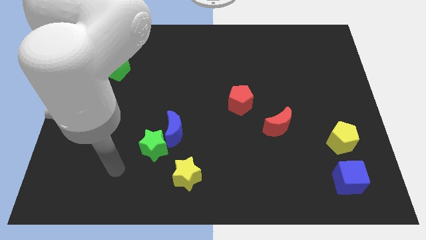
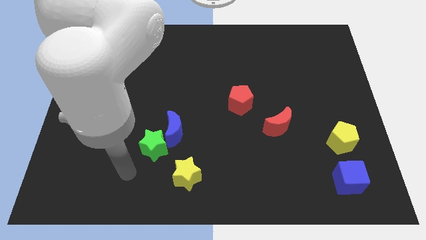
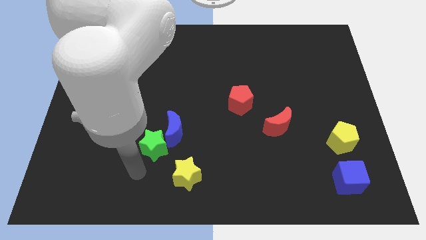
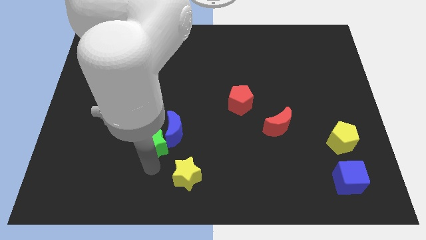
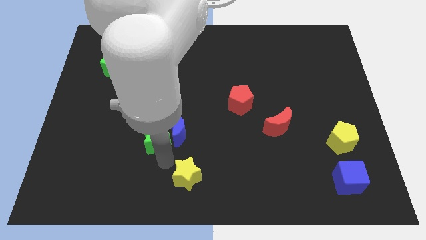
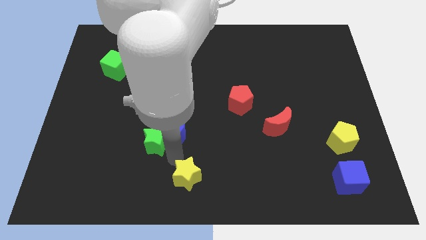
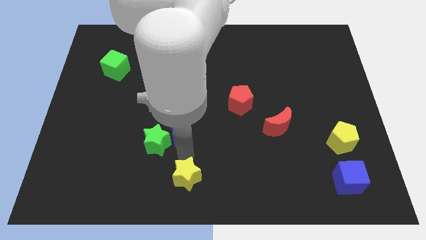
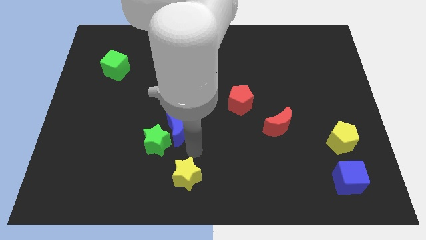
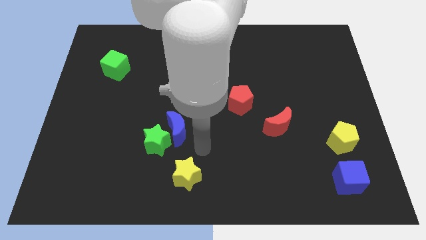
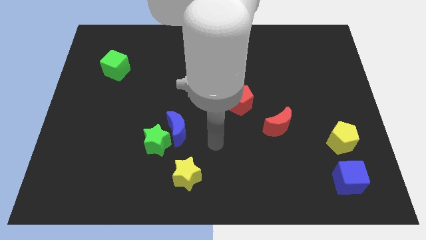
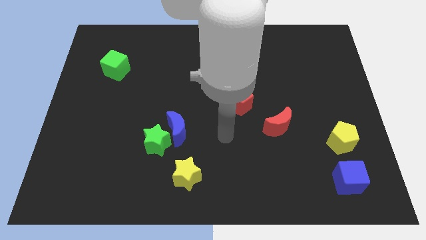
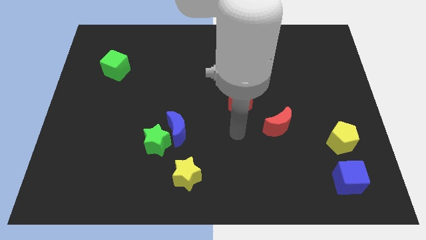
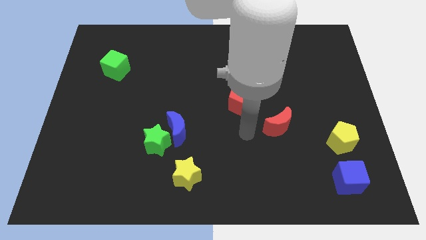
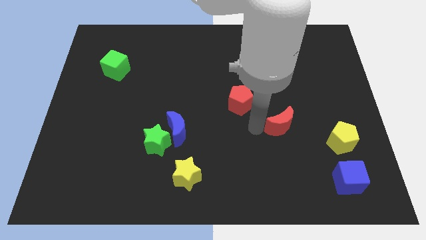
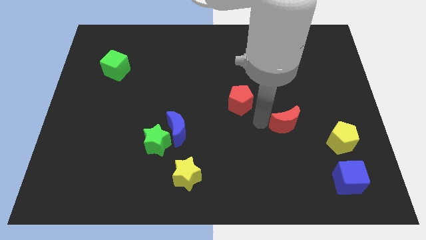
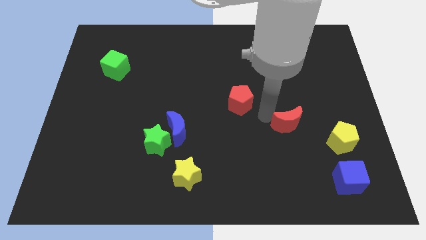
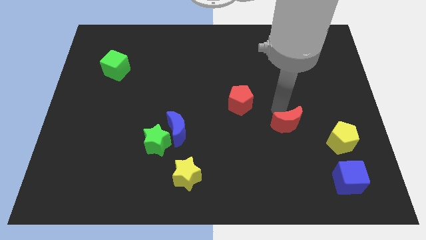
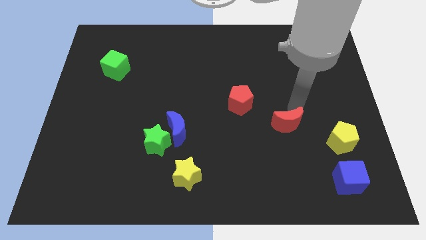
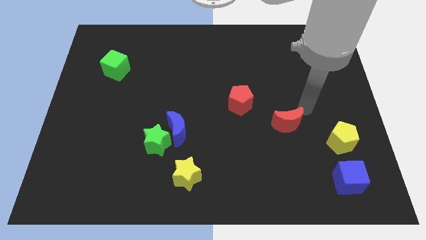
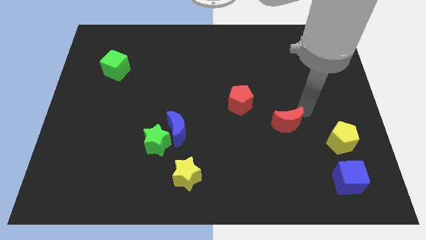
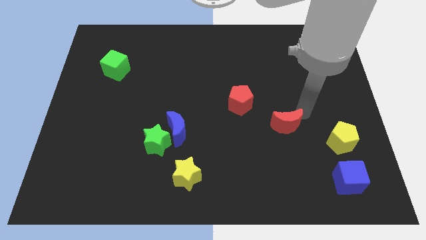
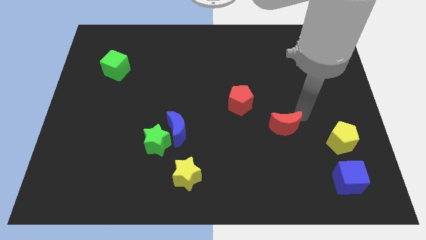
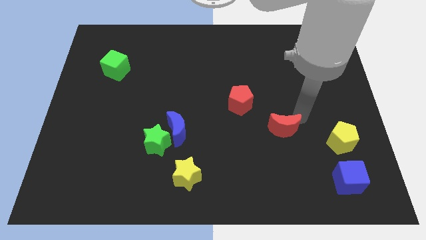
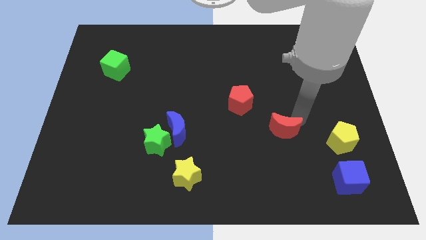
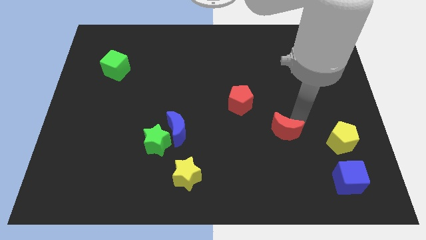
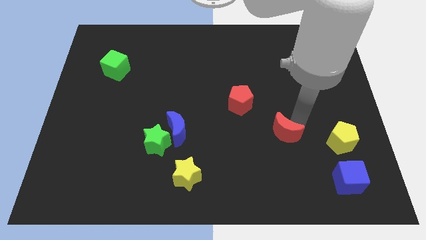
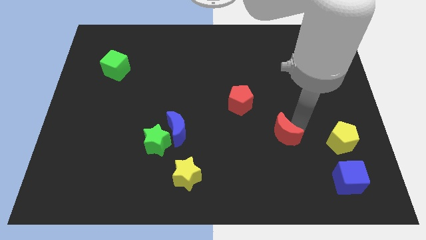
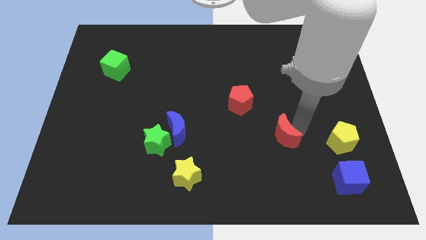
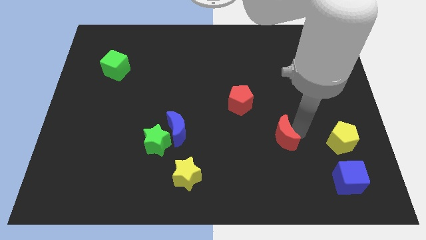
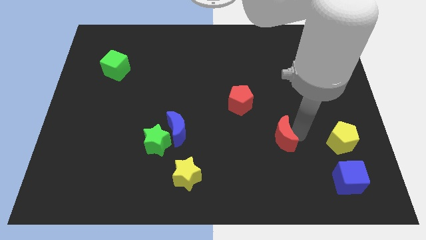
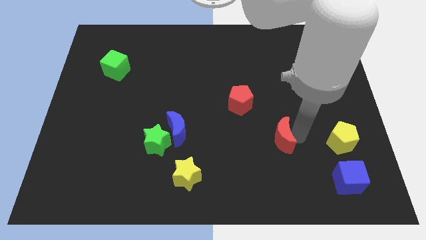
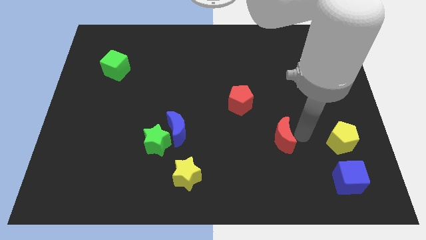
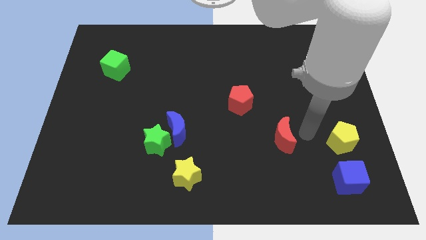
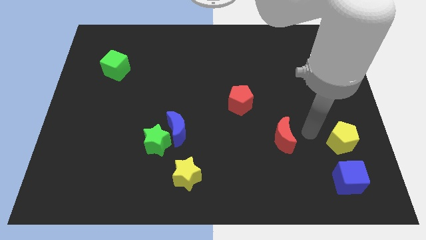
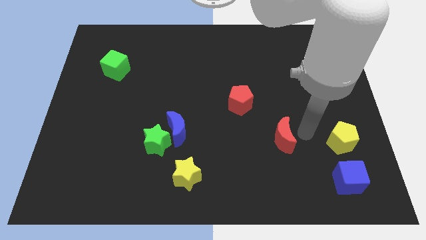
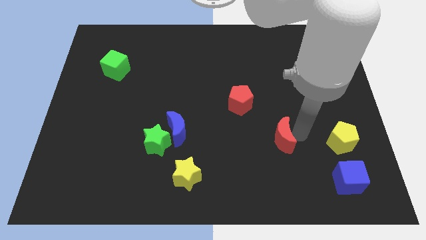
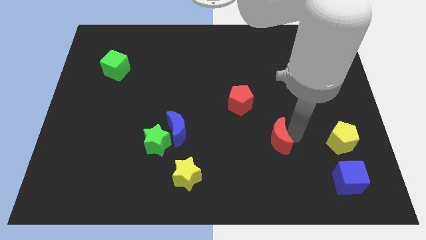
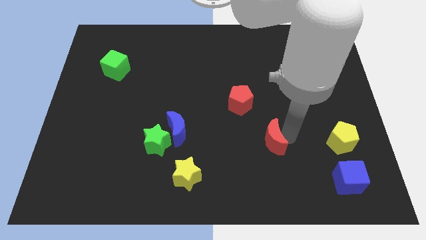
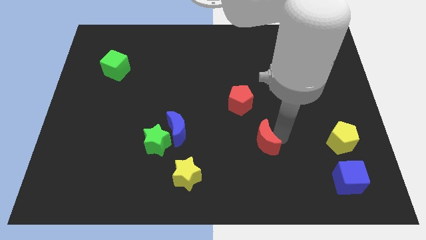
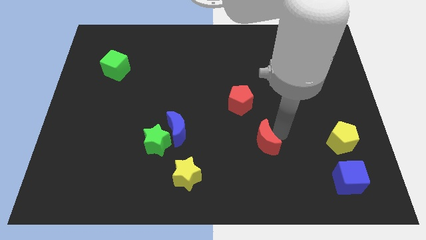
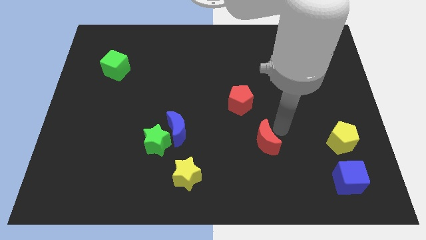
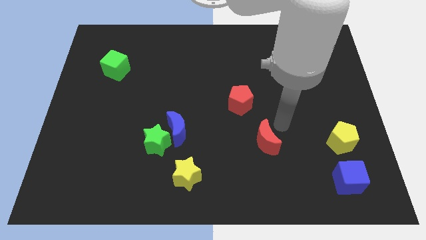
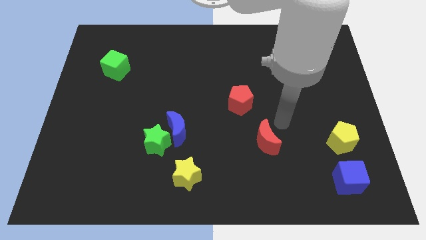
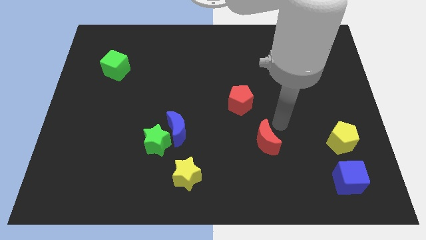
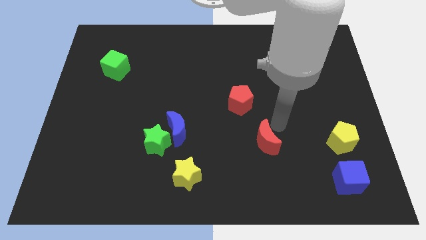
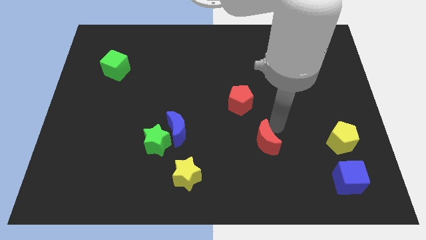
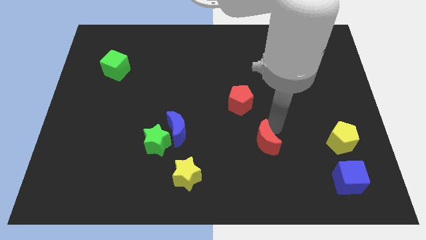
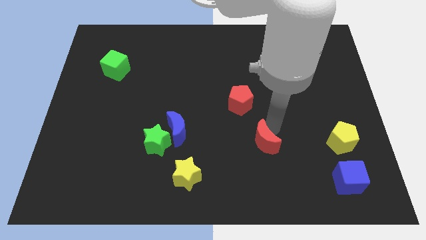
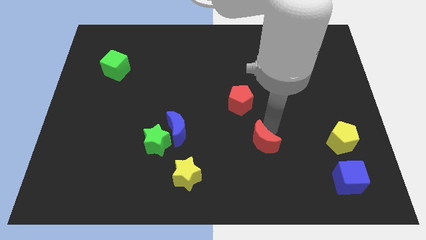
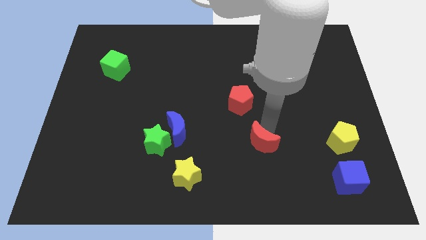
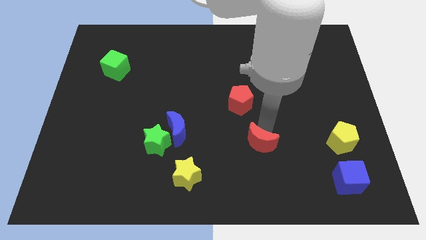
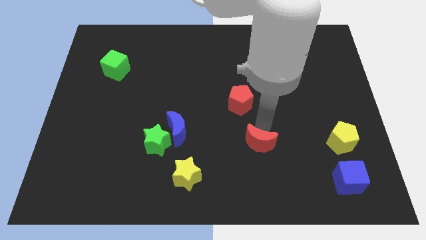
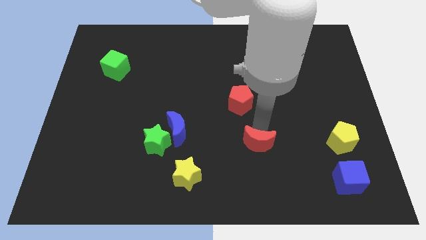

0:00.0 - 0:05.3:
slightly slide the red moon down and to the left diagonally

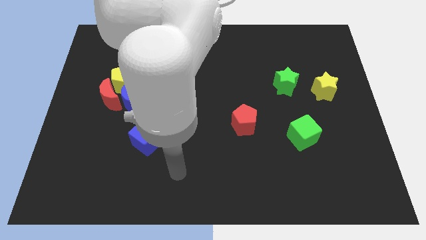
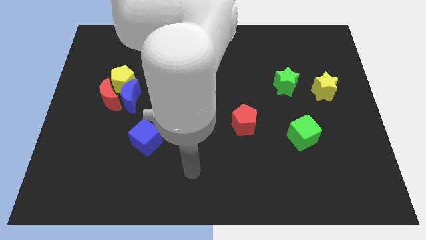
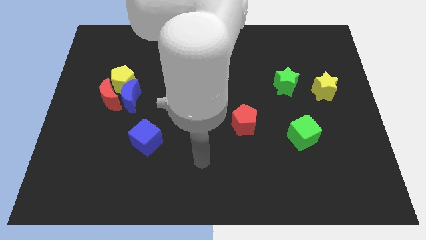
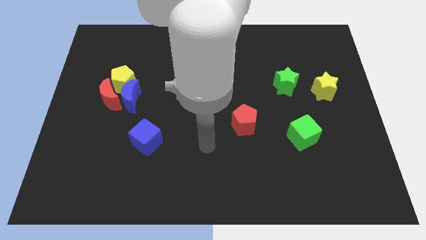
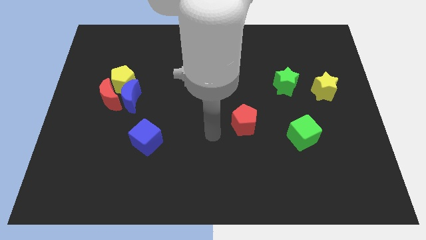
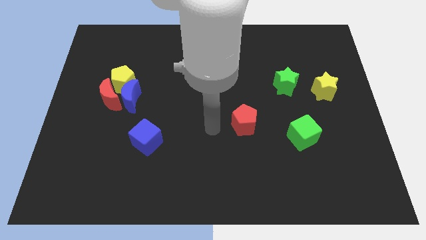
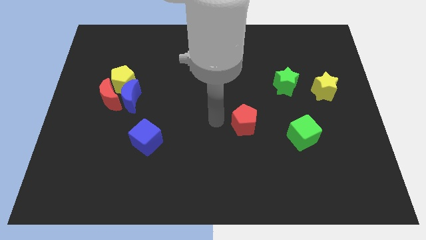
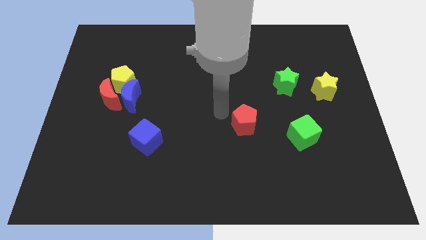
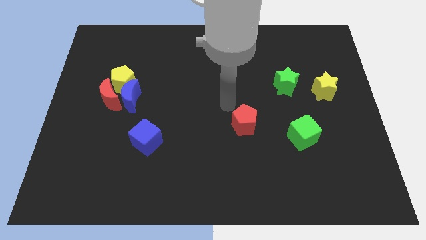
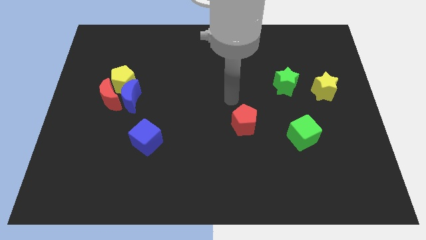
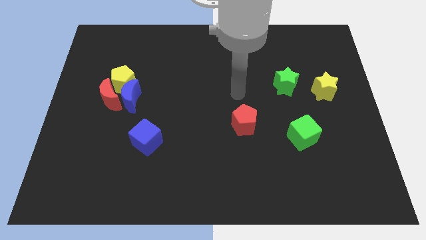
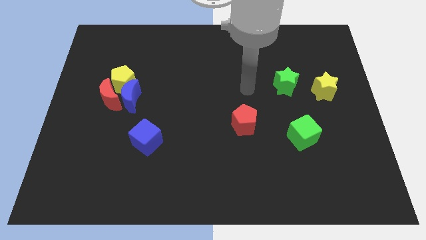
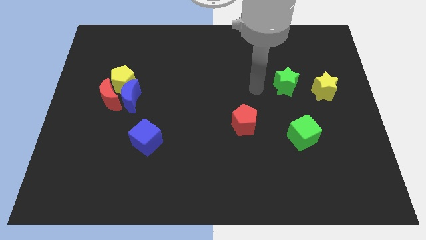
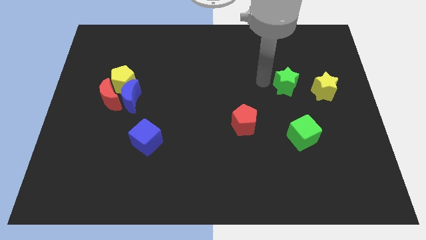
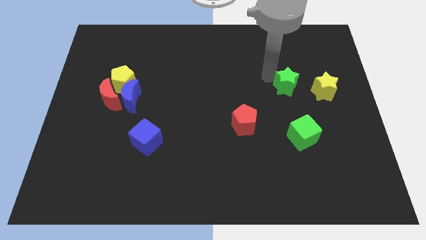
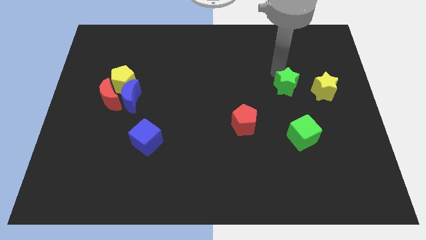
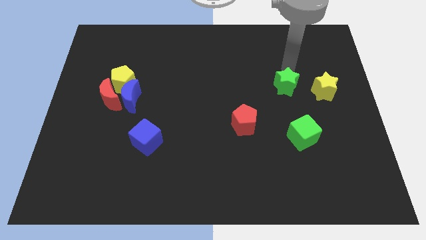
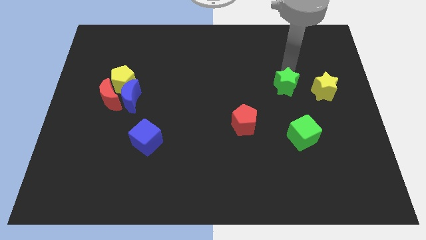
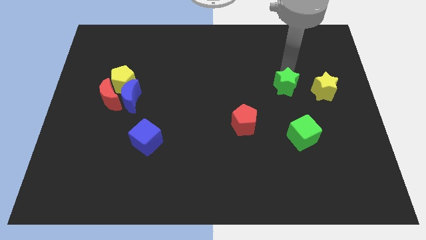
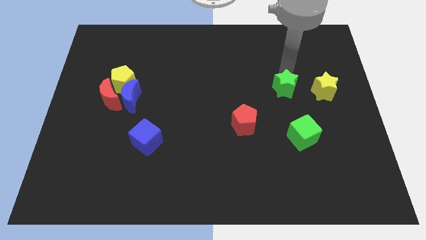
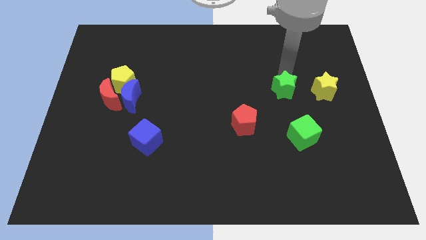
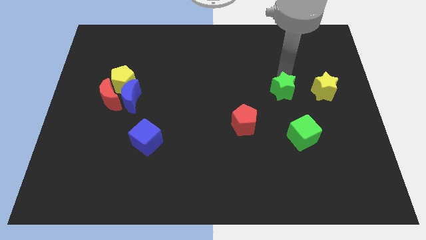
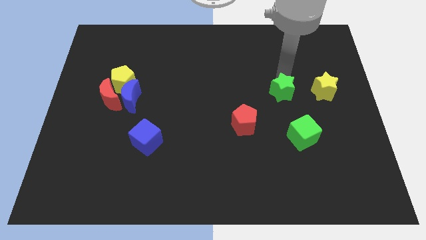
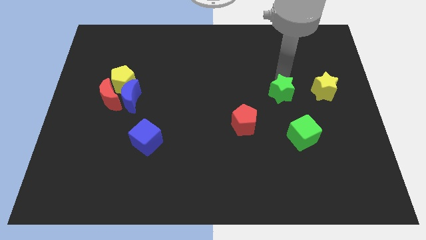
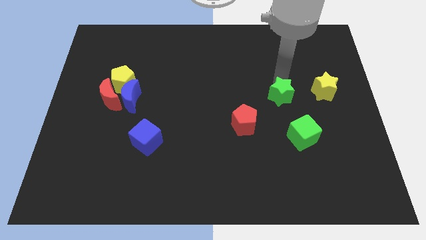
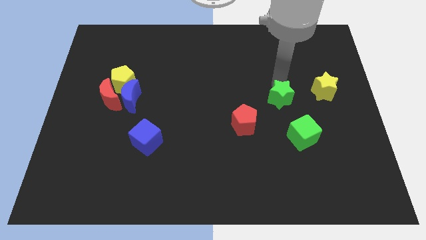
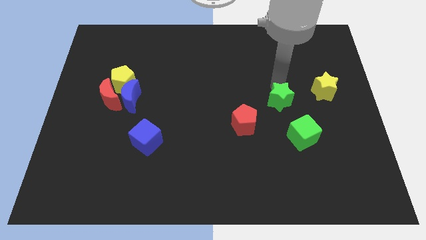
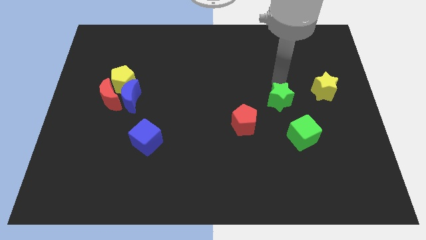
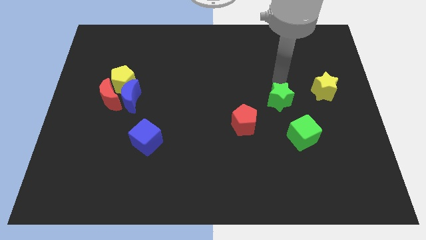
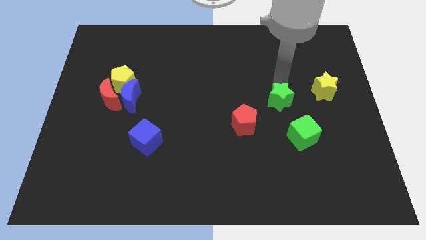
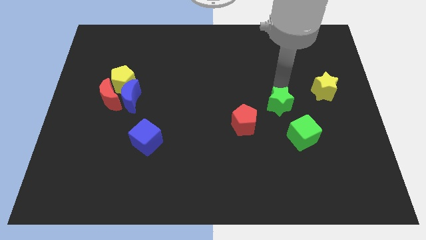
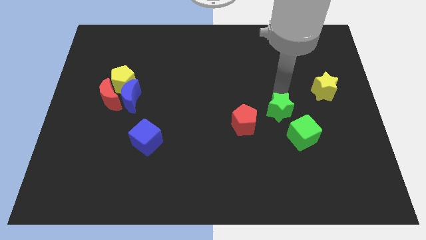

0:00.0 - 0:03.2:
slightly push the green star downwards
